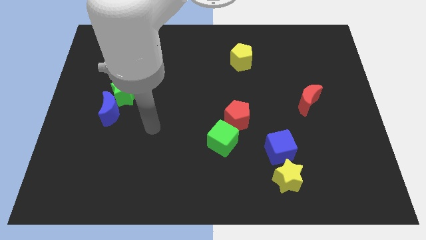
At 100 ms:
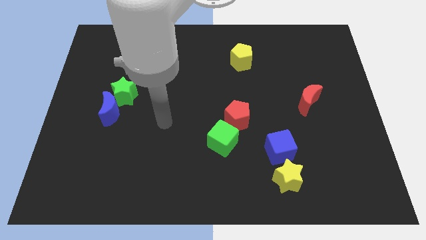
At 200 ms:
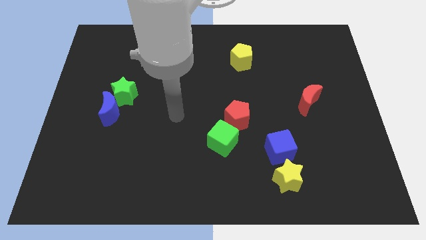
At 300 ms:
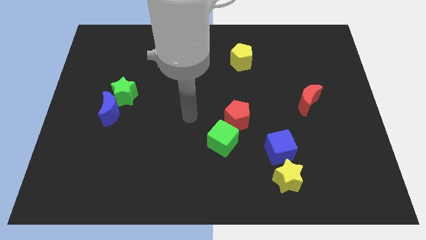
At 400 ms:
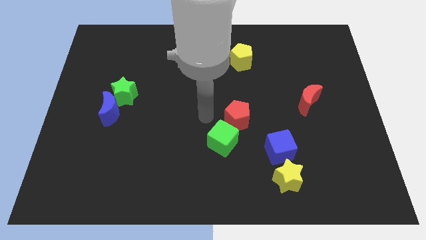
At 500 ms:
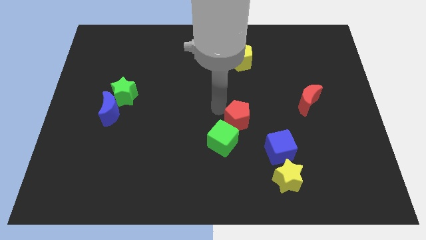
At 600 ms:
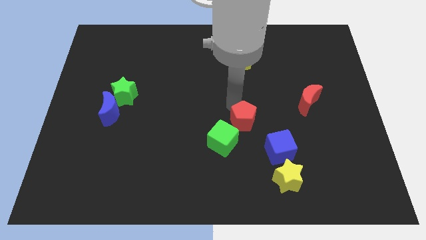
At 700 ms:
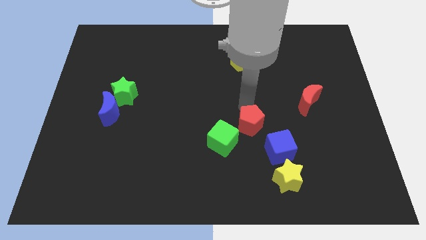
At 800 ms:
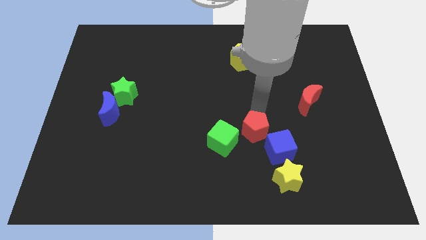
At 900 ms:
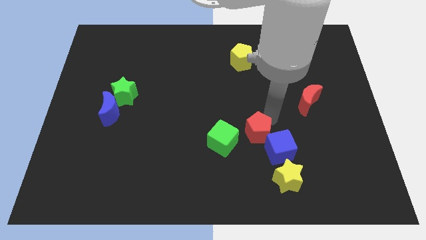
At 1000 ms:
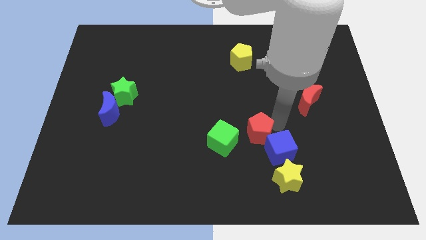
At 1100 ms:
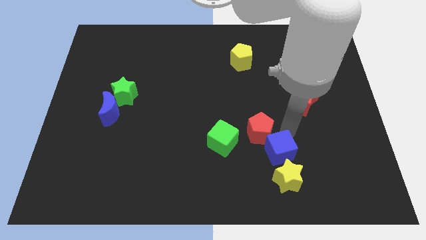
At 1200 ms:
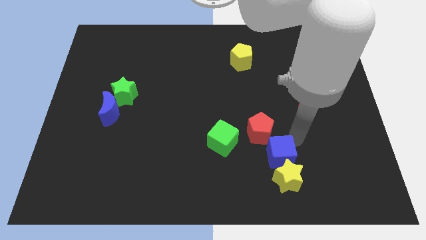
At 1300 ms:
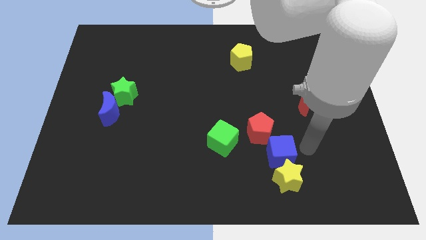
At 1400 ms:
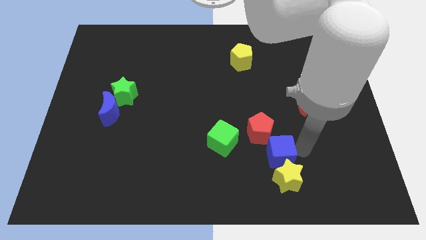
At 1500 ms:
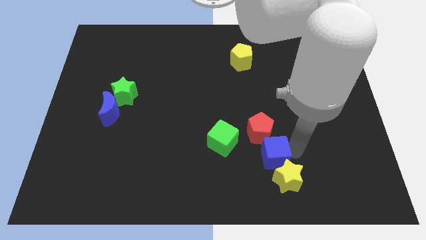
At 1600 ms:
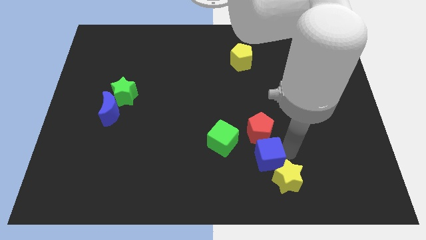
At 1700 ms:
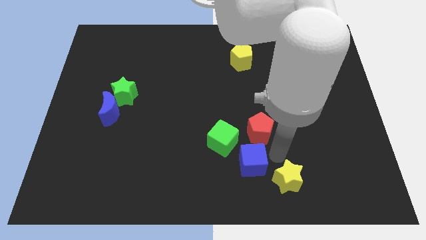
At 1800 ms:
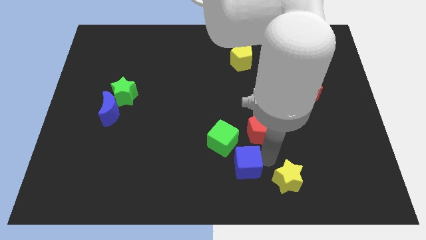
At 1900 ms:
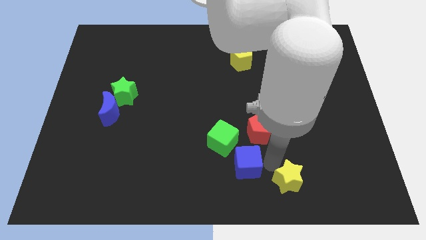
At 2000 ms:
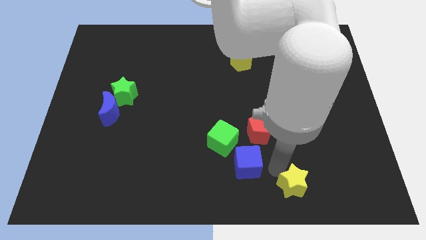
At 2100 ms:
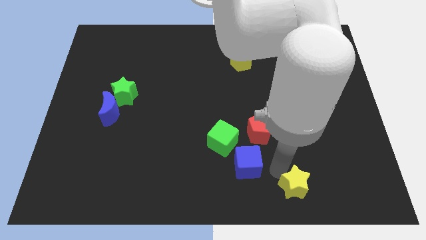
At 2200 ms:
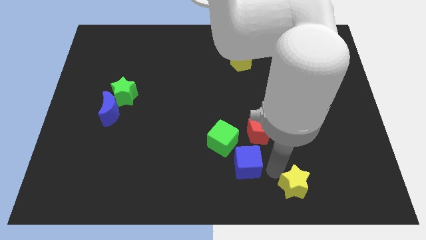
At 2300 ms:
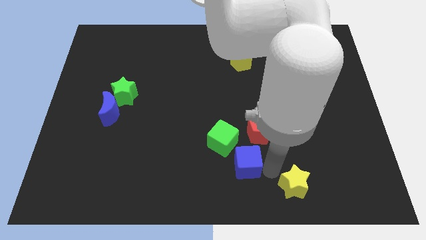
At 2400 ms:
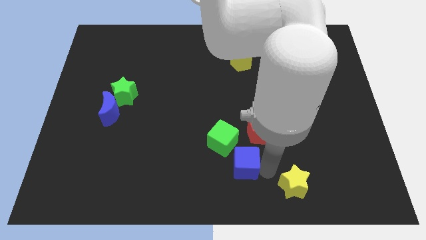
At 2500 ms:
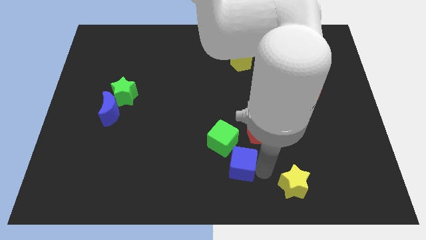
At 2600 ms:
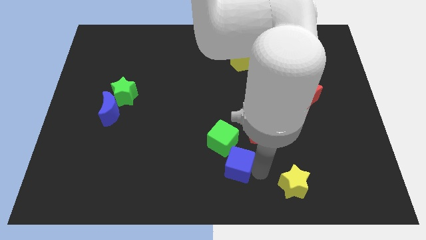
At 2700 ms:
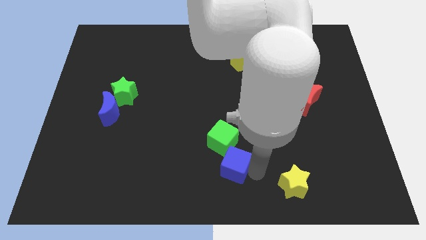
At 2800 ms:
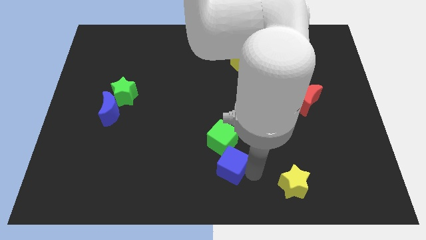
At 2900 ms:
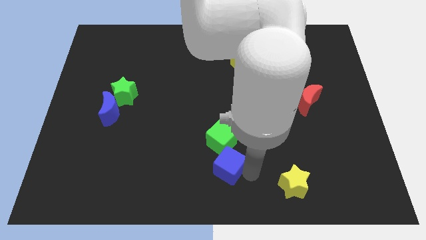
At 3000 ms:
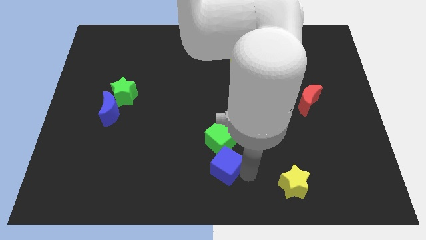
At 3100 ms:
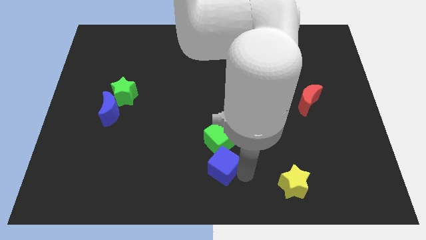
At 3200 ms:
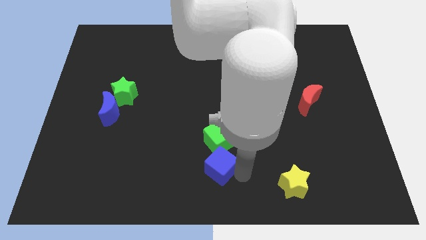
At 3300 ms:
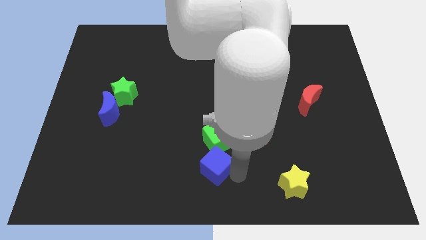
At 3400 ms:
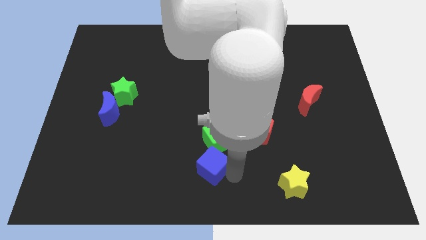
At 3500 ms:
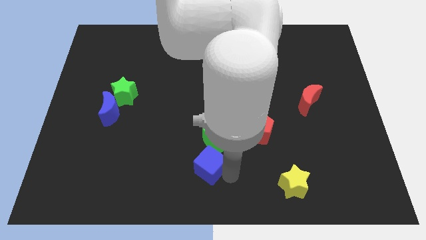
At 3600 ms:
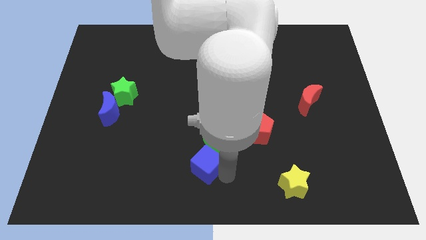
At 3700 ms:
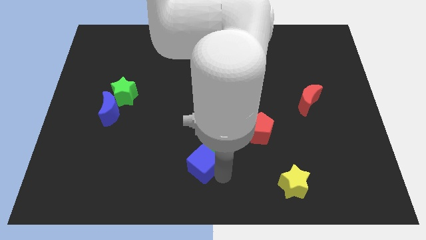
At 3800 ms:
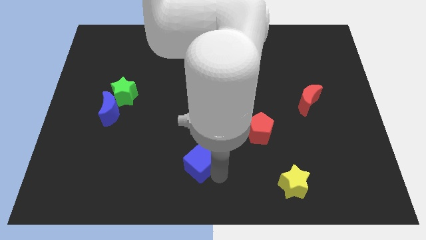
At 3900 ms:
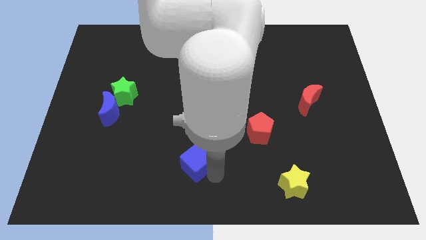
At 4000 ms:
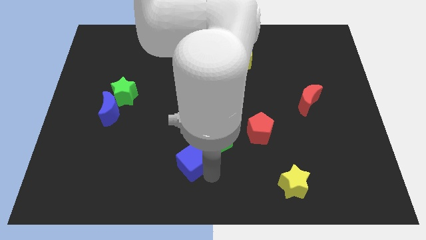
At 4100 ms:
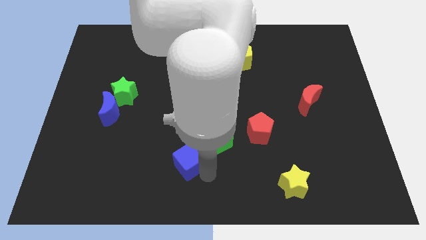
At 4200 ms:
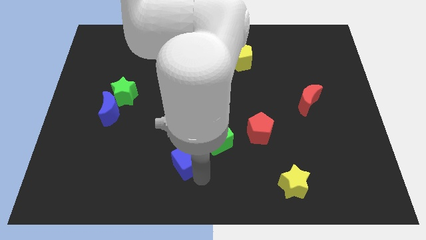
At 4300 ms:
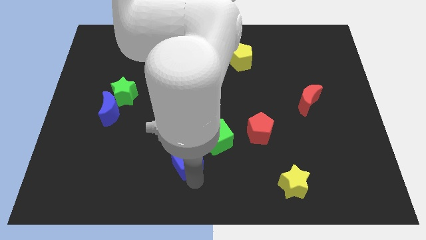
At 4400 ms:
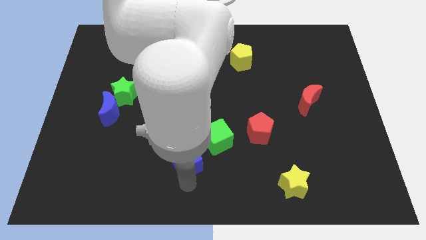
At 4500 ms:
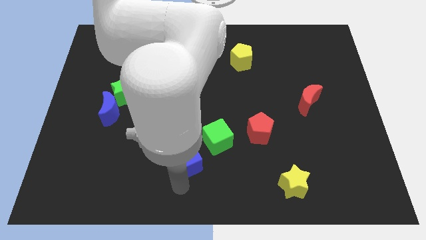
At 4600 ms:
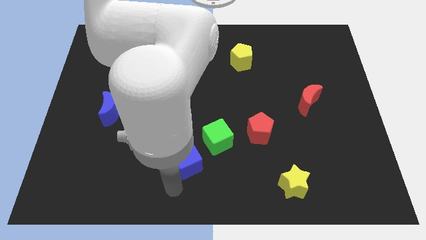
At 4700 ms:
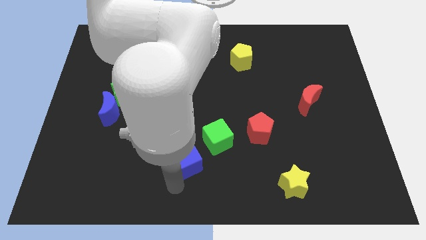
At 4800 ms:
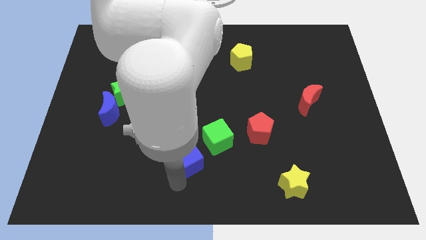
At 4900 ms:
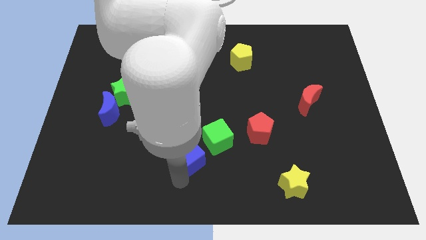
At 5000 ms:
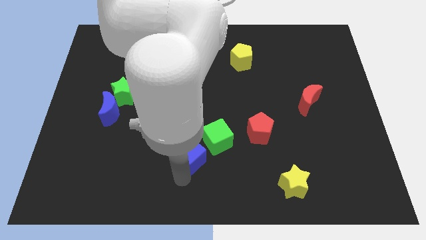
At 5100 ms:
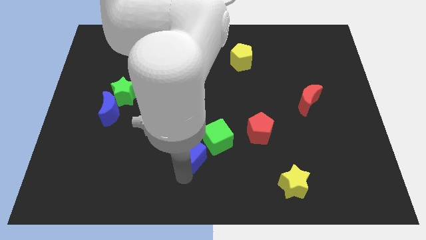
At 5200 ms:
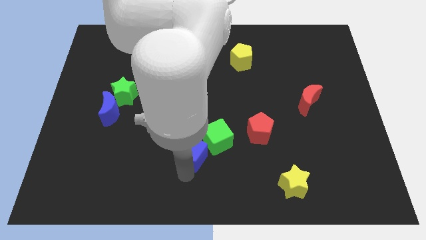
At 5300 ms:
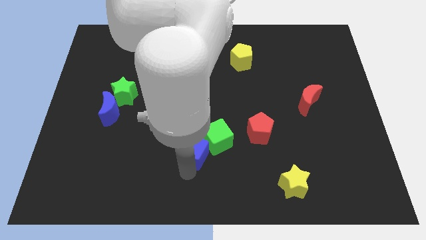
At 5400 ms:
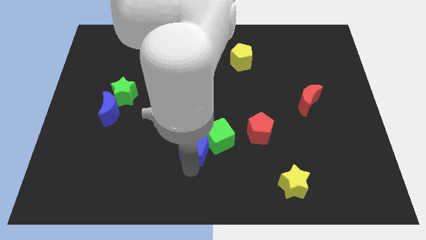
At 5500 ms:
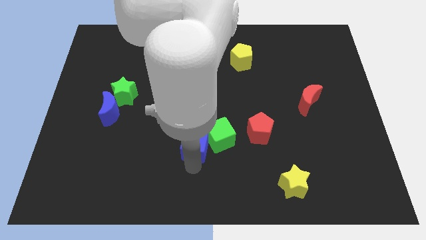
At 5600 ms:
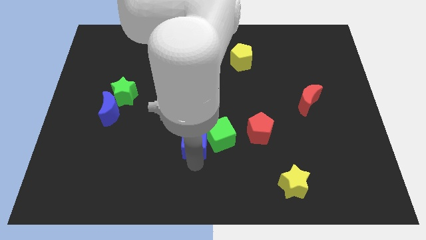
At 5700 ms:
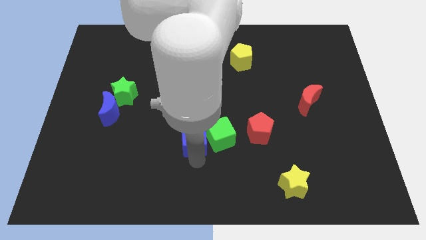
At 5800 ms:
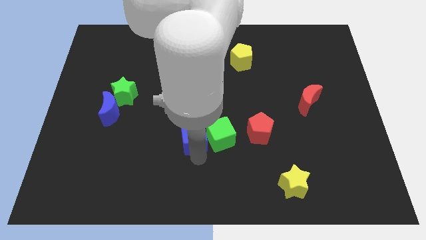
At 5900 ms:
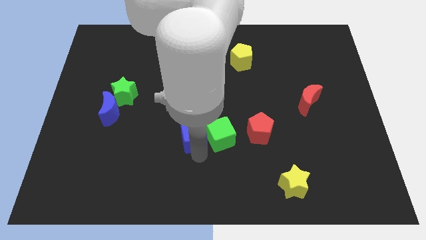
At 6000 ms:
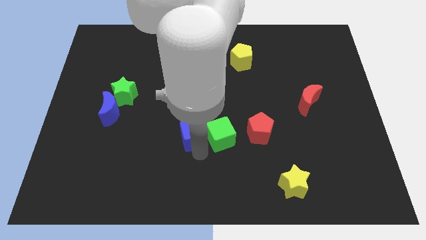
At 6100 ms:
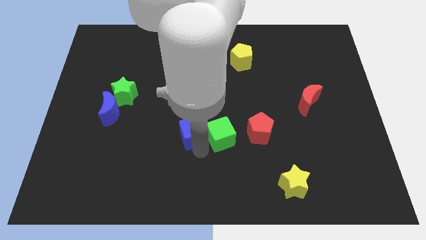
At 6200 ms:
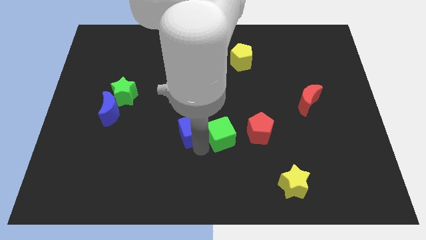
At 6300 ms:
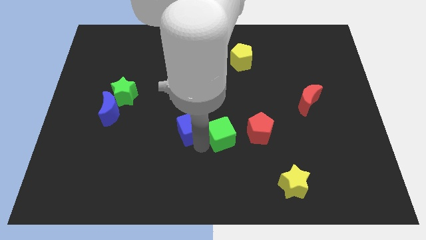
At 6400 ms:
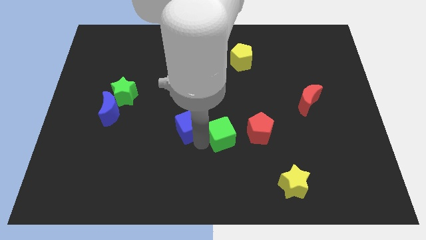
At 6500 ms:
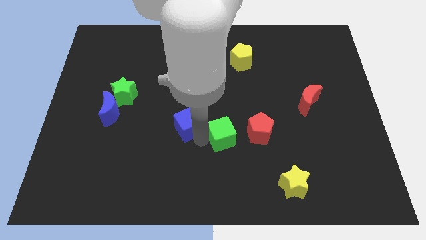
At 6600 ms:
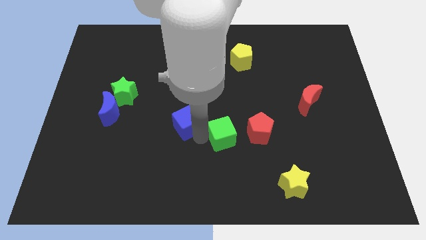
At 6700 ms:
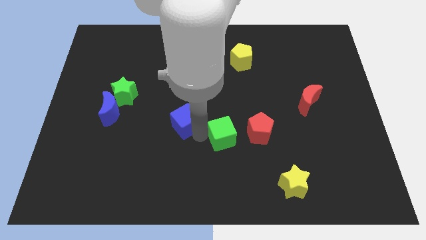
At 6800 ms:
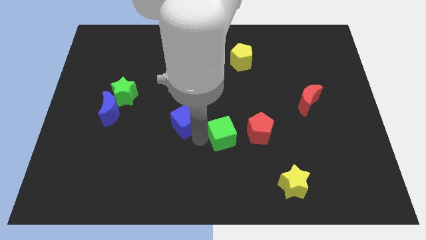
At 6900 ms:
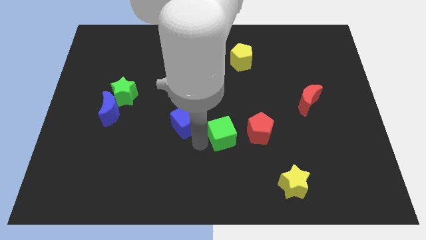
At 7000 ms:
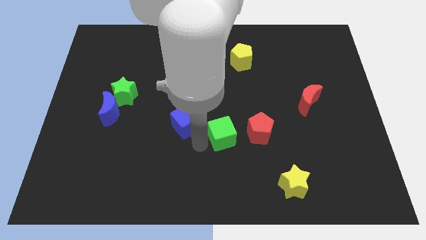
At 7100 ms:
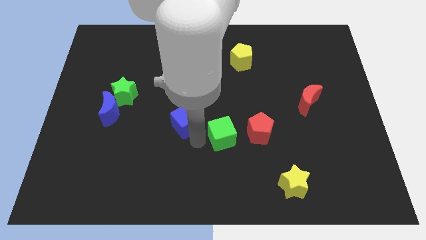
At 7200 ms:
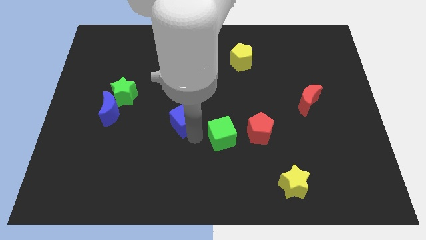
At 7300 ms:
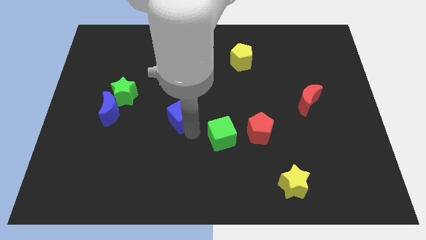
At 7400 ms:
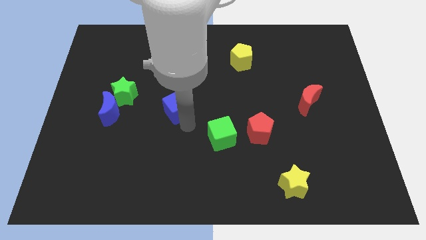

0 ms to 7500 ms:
slide the blue cube just right of the green star

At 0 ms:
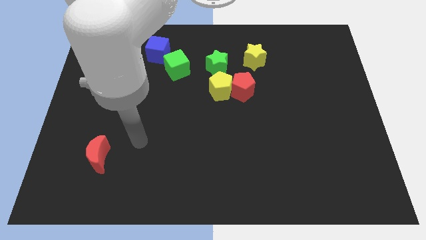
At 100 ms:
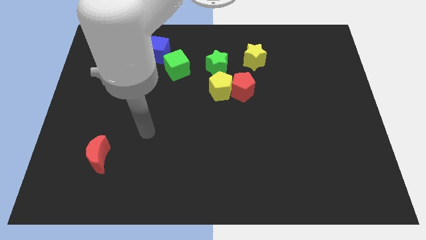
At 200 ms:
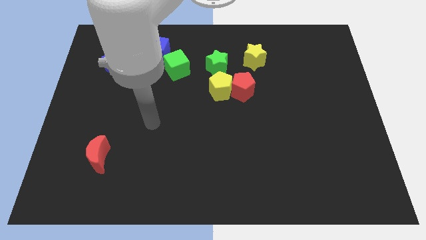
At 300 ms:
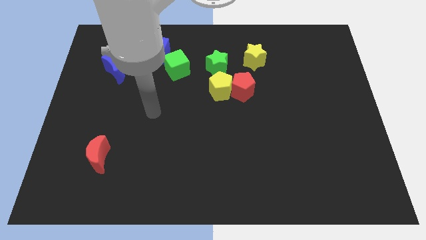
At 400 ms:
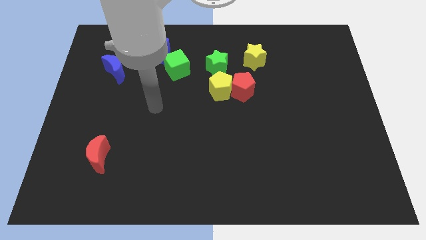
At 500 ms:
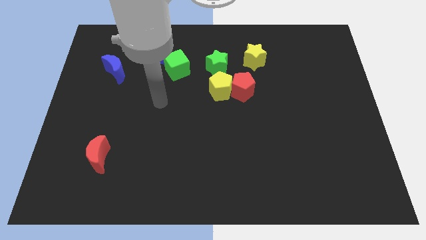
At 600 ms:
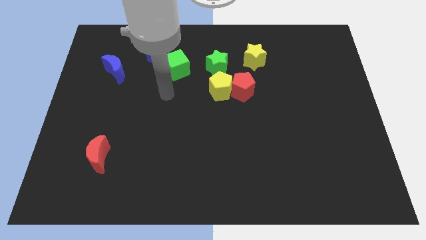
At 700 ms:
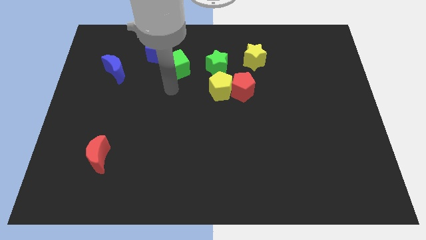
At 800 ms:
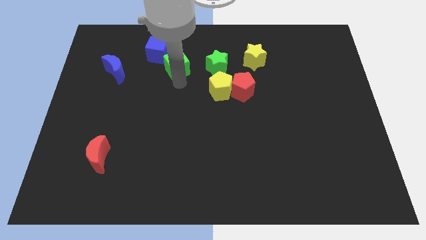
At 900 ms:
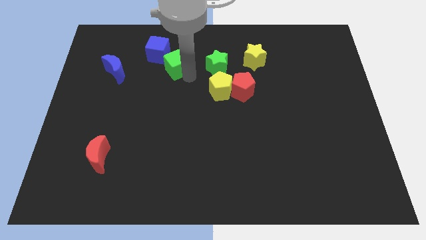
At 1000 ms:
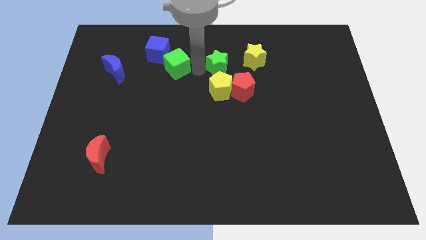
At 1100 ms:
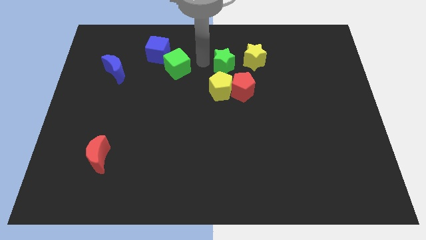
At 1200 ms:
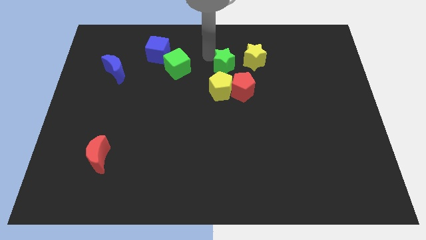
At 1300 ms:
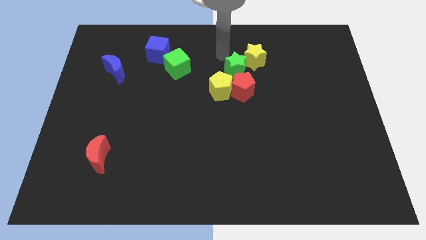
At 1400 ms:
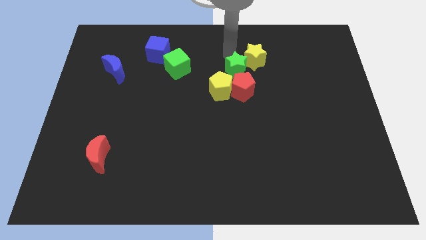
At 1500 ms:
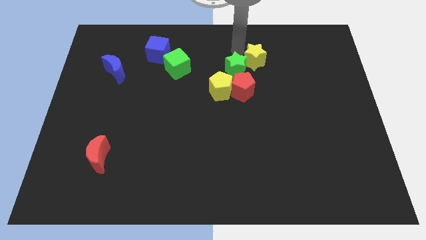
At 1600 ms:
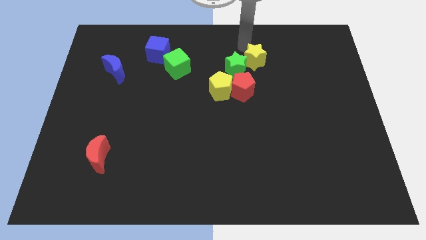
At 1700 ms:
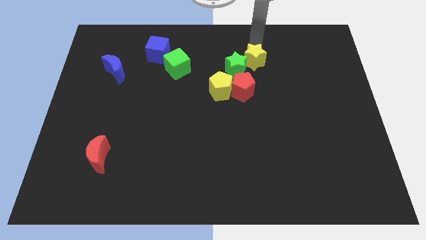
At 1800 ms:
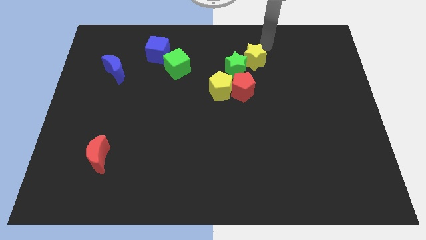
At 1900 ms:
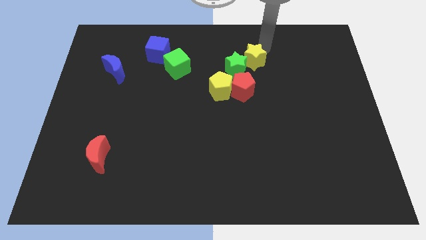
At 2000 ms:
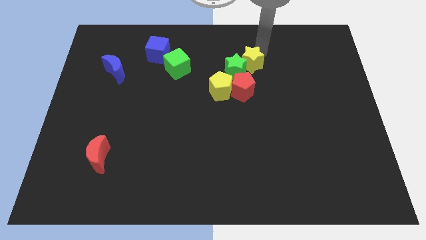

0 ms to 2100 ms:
put the yellow star to the top right side of the yellow pentagon
